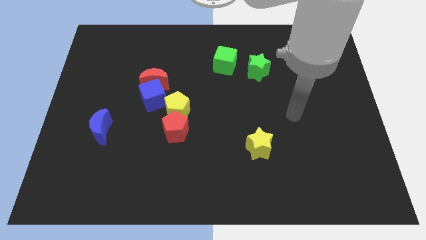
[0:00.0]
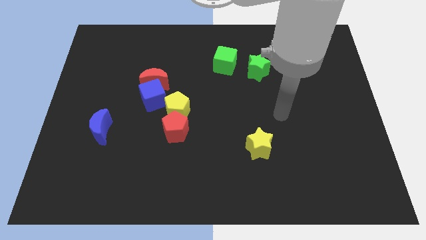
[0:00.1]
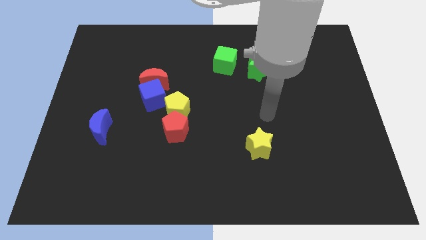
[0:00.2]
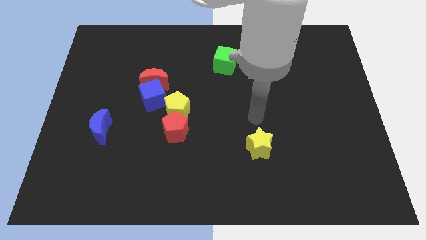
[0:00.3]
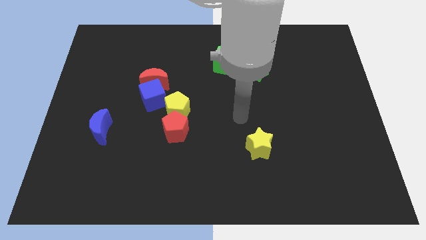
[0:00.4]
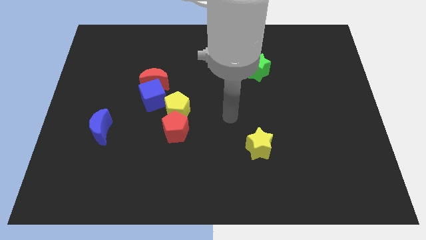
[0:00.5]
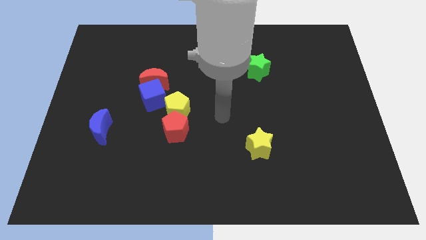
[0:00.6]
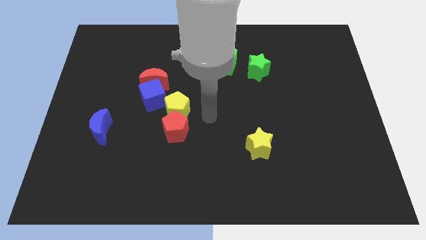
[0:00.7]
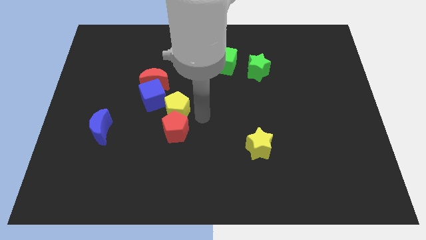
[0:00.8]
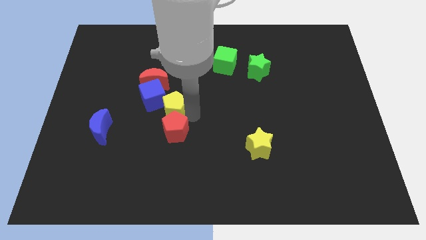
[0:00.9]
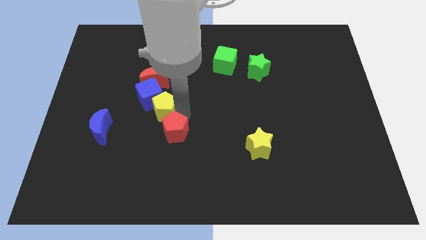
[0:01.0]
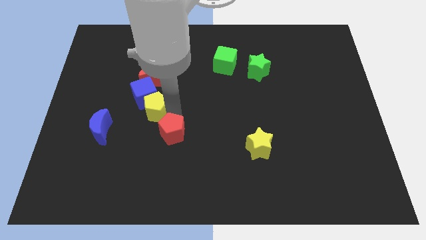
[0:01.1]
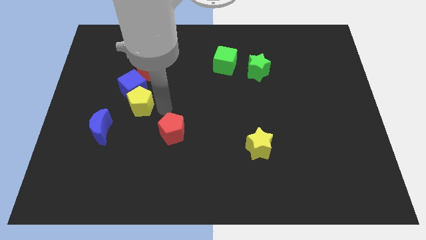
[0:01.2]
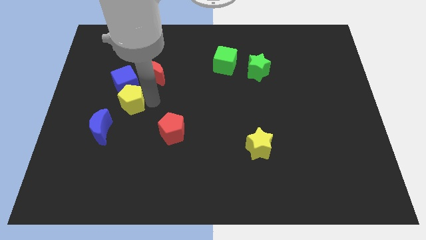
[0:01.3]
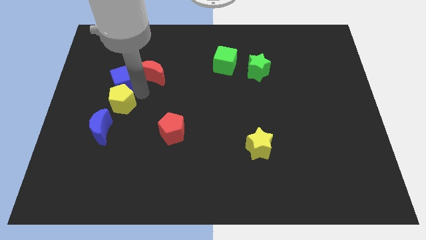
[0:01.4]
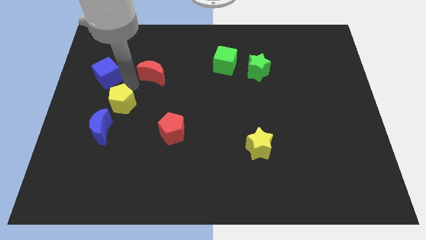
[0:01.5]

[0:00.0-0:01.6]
separate the red moon from the blue cube

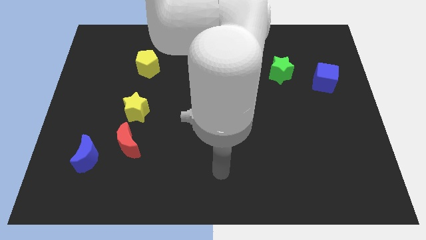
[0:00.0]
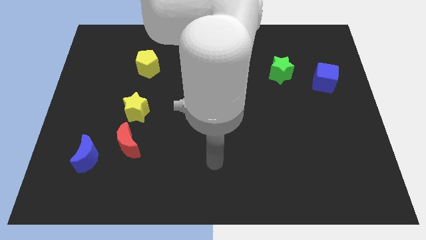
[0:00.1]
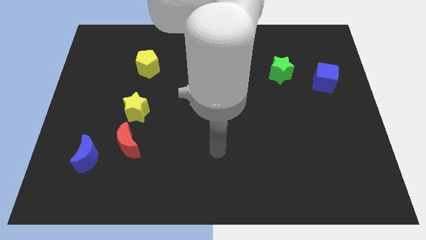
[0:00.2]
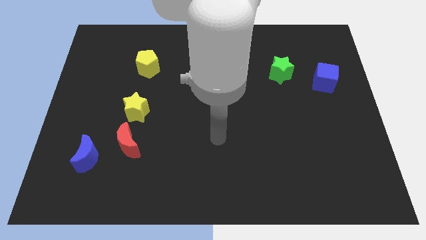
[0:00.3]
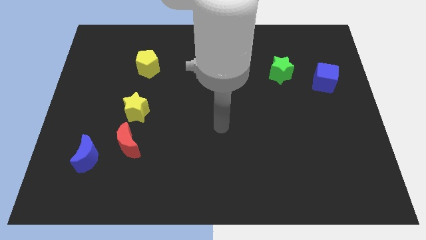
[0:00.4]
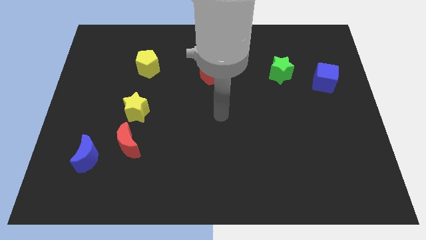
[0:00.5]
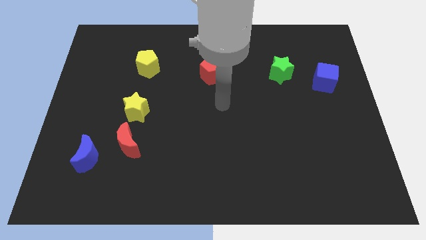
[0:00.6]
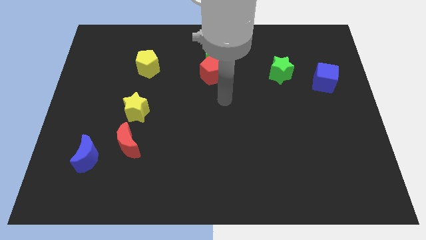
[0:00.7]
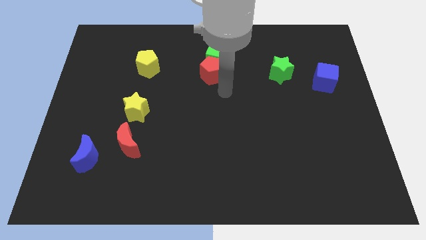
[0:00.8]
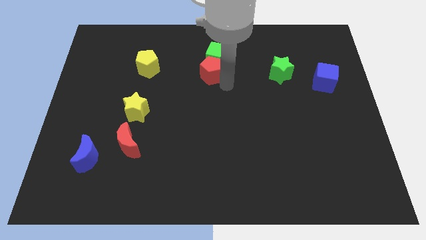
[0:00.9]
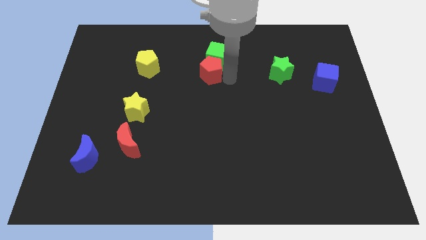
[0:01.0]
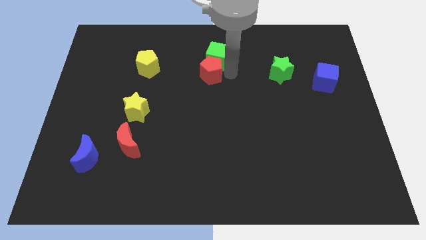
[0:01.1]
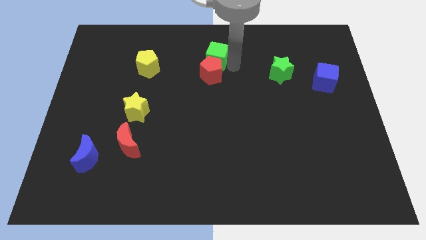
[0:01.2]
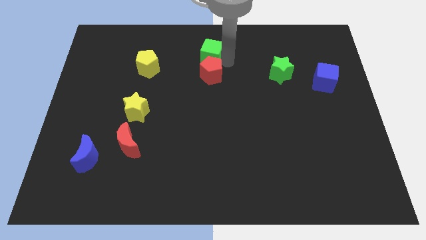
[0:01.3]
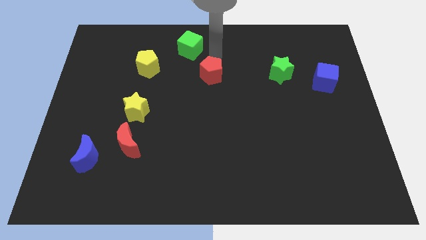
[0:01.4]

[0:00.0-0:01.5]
move the red pentagon away from the green cube

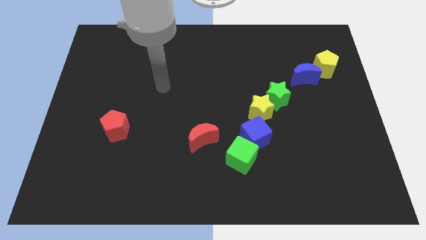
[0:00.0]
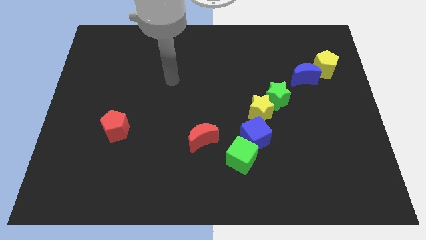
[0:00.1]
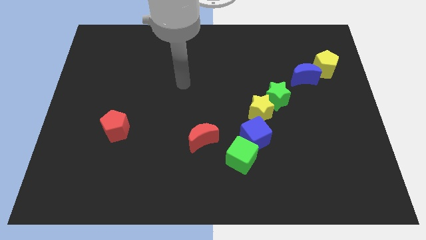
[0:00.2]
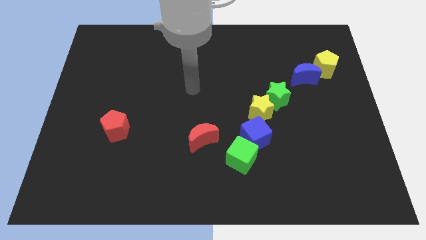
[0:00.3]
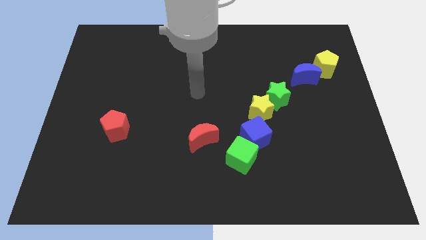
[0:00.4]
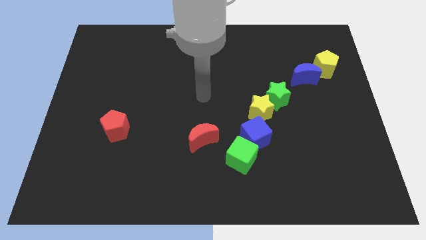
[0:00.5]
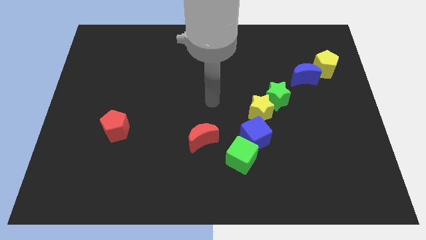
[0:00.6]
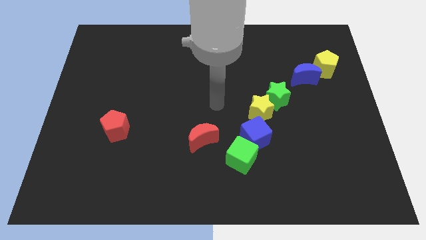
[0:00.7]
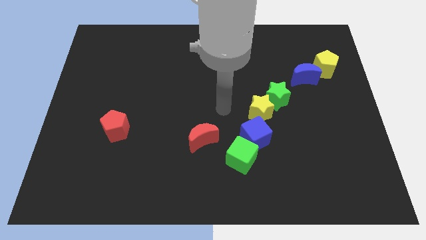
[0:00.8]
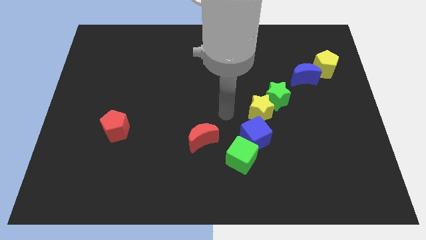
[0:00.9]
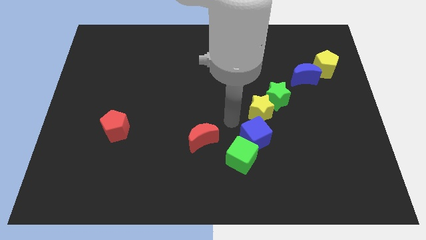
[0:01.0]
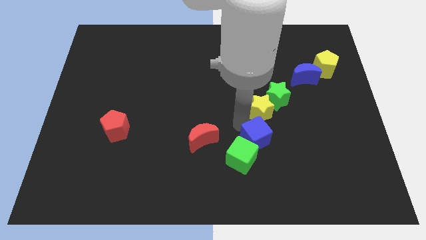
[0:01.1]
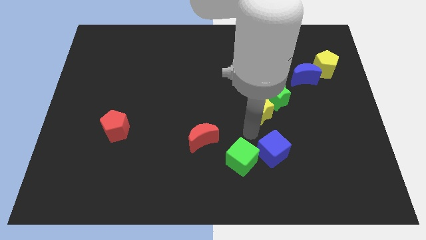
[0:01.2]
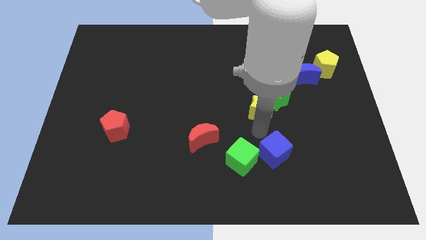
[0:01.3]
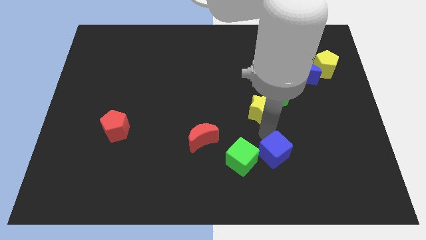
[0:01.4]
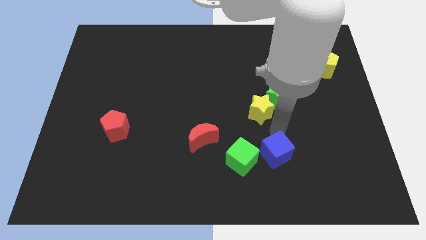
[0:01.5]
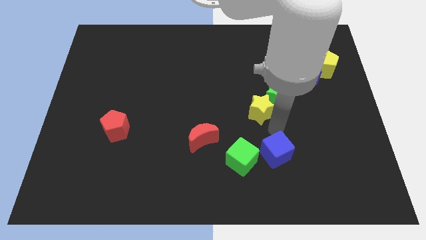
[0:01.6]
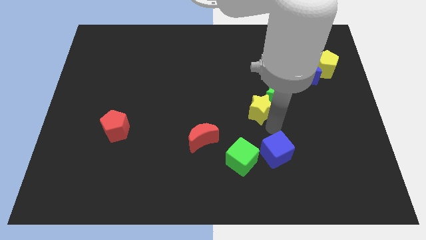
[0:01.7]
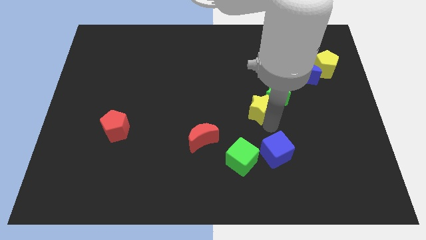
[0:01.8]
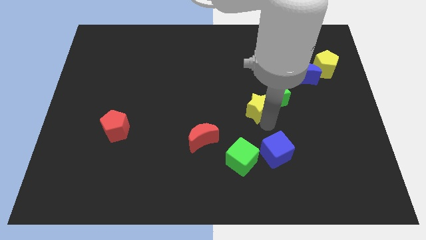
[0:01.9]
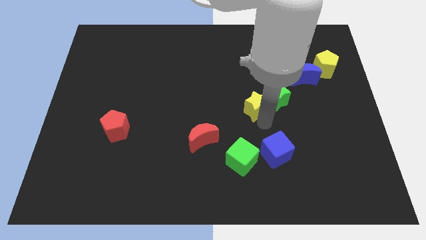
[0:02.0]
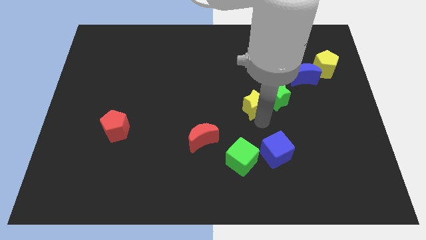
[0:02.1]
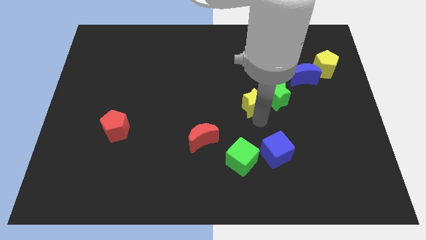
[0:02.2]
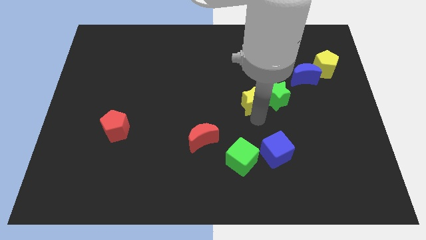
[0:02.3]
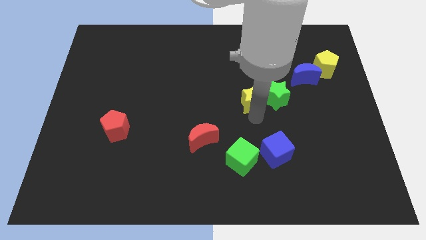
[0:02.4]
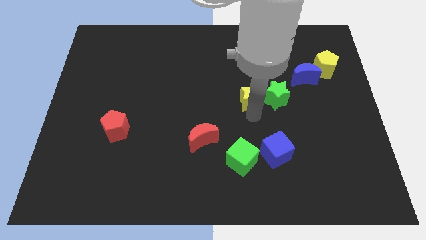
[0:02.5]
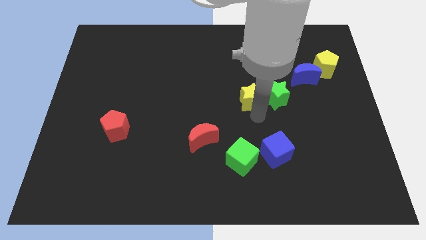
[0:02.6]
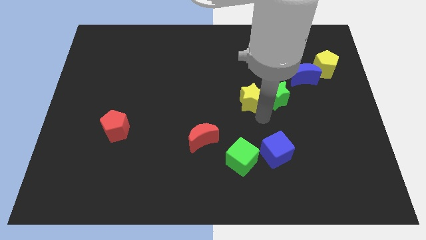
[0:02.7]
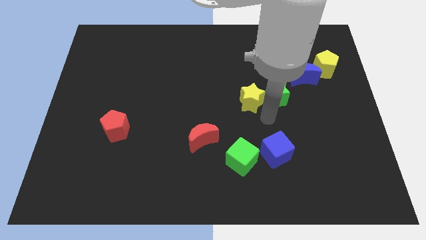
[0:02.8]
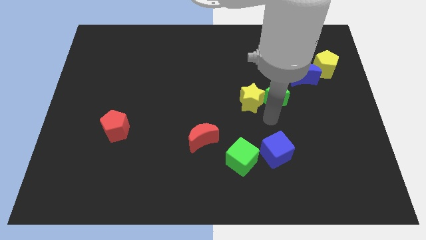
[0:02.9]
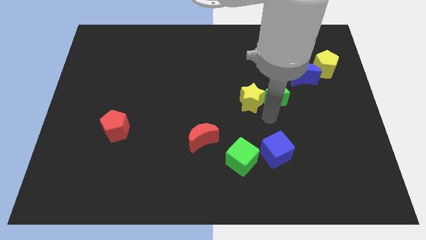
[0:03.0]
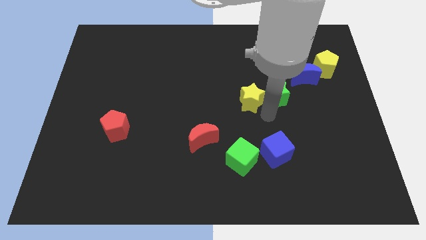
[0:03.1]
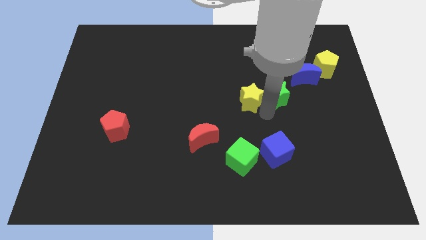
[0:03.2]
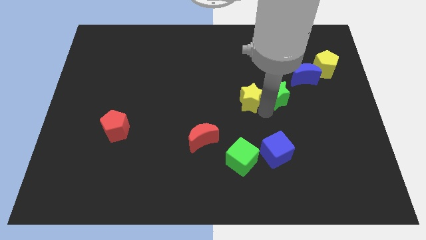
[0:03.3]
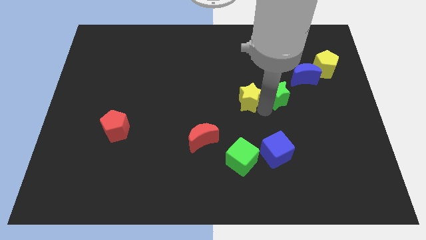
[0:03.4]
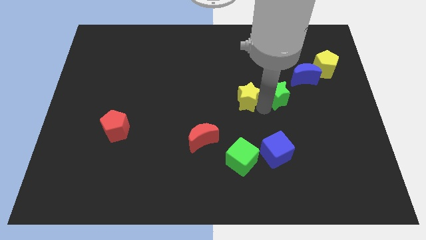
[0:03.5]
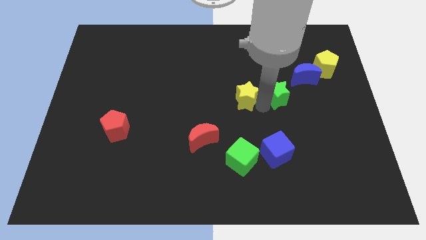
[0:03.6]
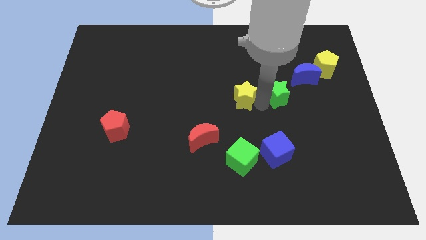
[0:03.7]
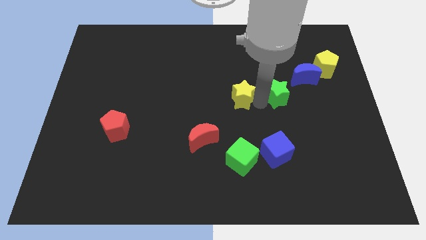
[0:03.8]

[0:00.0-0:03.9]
pull the yellow star apart from the green star and blue cube

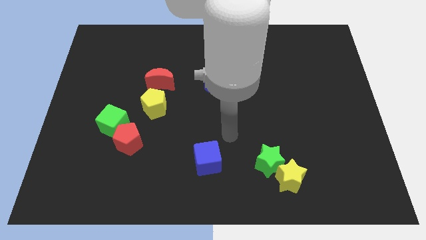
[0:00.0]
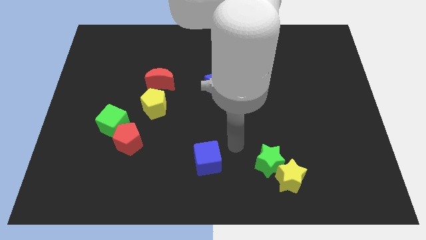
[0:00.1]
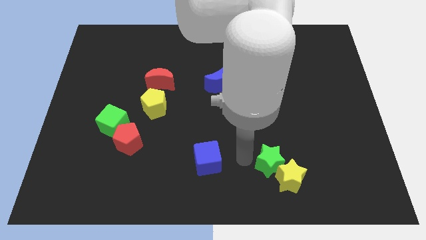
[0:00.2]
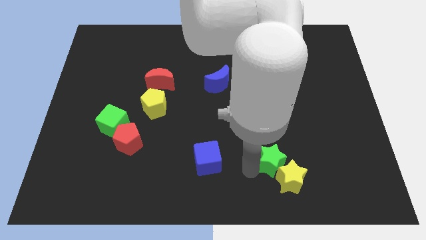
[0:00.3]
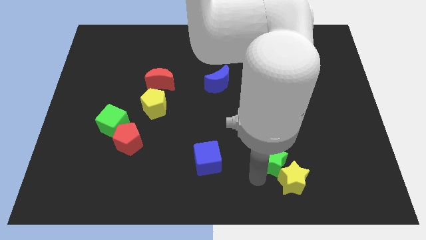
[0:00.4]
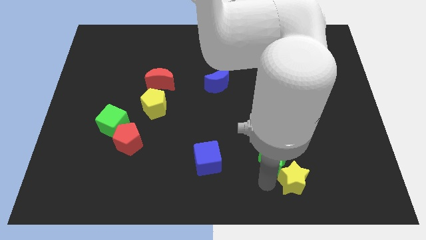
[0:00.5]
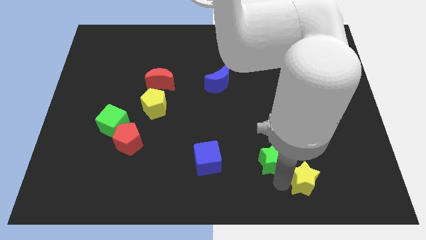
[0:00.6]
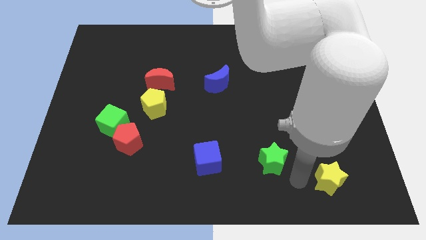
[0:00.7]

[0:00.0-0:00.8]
move the green star away from the yellow star

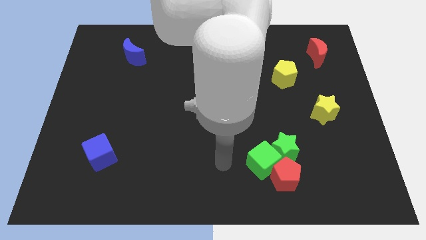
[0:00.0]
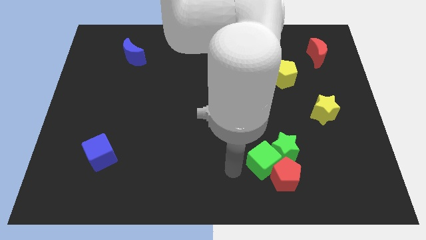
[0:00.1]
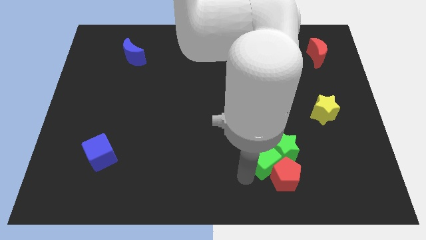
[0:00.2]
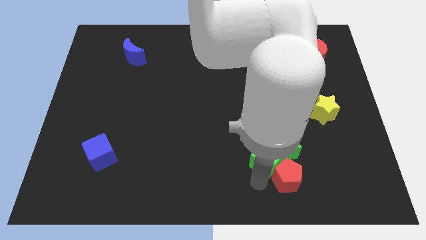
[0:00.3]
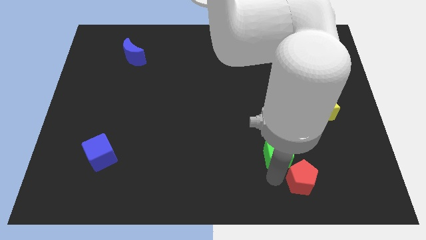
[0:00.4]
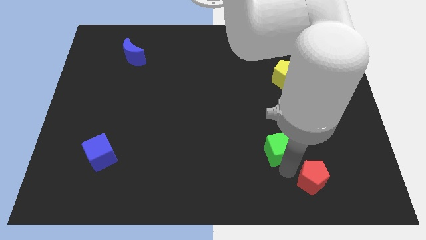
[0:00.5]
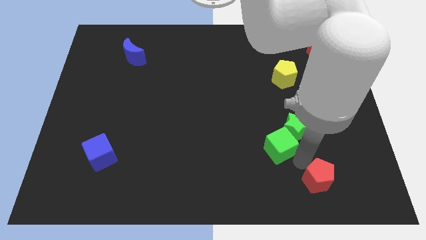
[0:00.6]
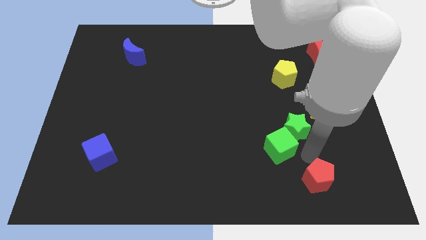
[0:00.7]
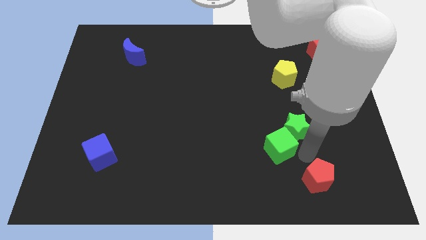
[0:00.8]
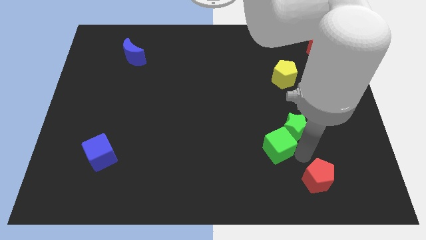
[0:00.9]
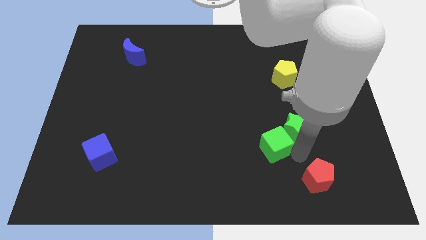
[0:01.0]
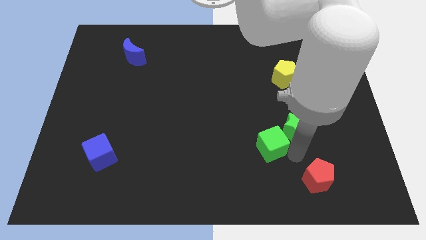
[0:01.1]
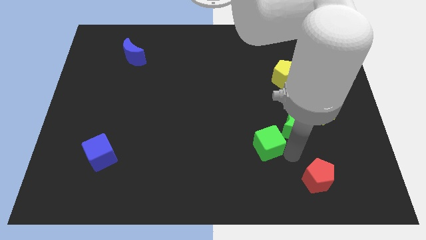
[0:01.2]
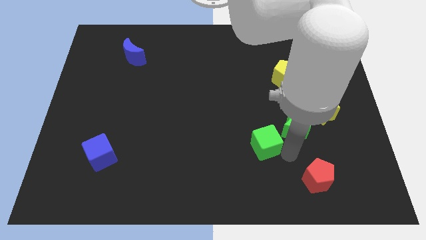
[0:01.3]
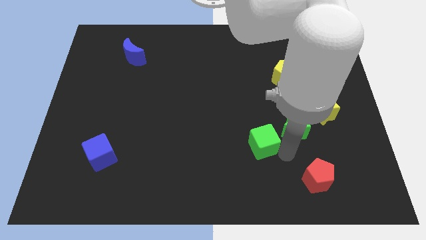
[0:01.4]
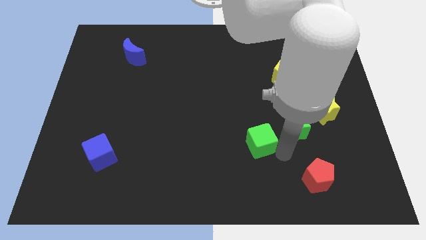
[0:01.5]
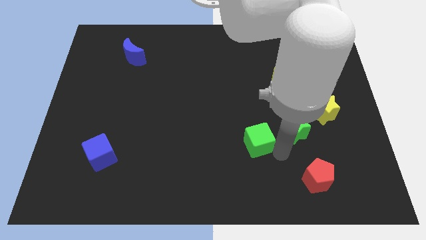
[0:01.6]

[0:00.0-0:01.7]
separate the green cube from the green star and red pentagon
